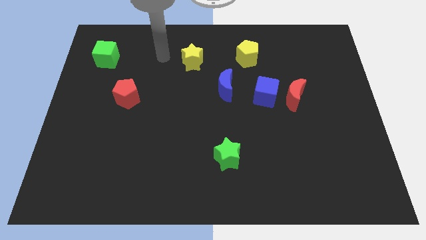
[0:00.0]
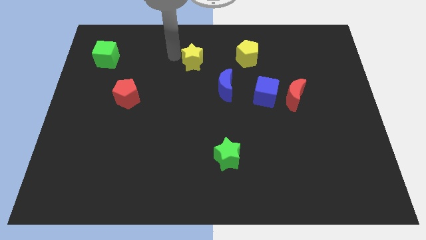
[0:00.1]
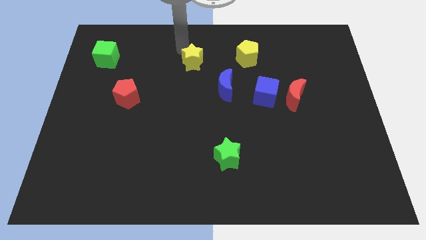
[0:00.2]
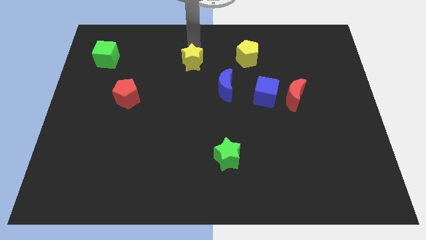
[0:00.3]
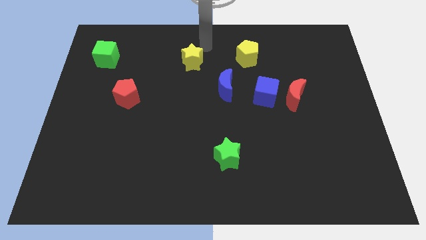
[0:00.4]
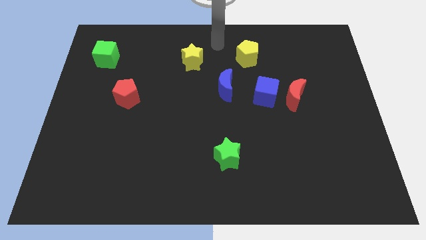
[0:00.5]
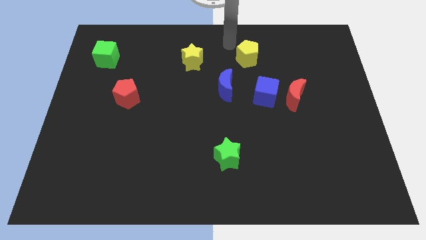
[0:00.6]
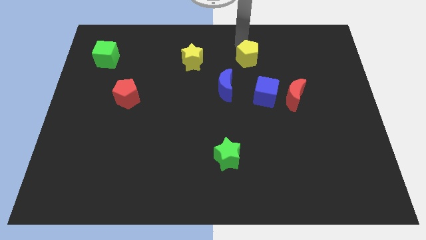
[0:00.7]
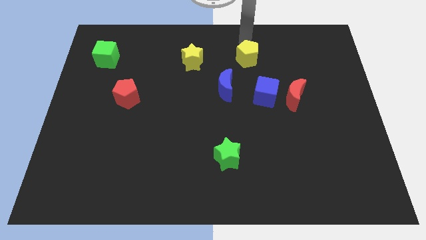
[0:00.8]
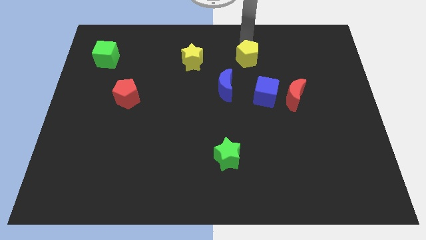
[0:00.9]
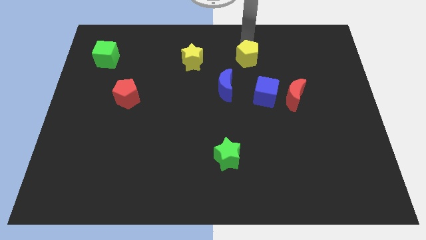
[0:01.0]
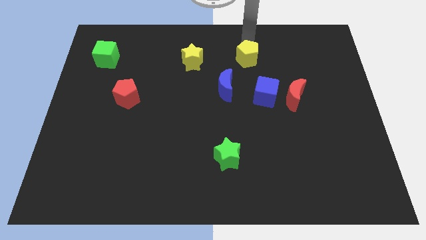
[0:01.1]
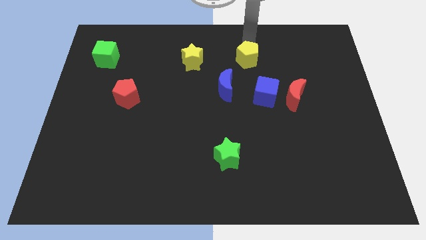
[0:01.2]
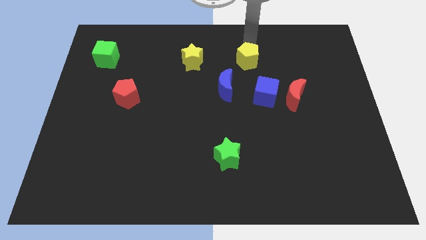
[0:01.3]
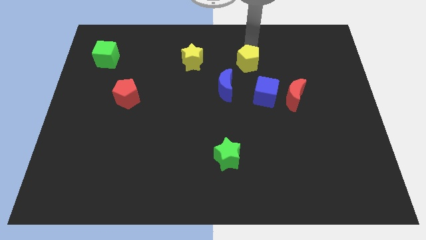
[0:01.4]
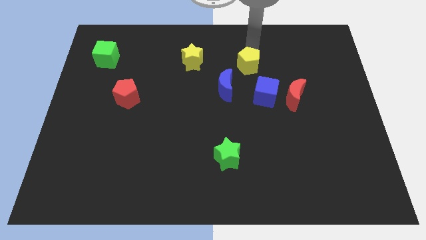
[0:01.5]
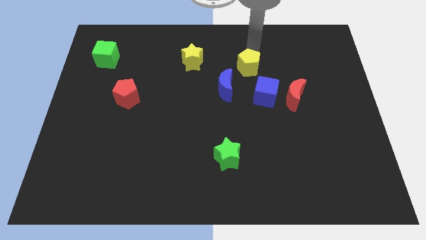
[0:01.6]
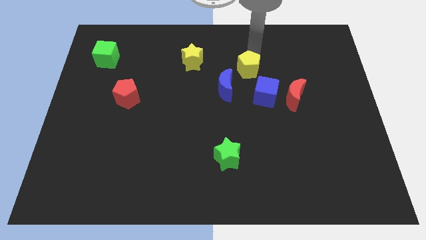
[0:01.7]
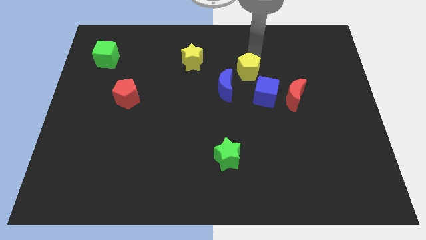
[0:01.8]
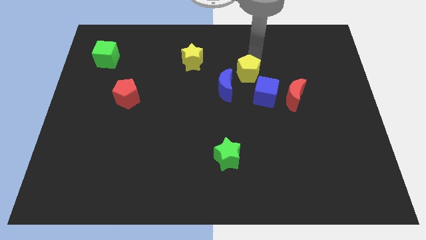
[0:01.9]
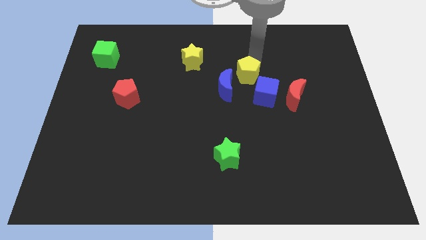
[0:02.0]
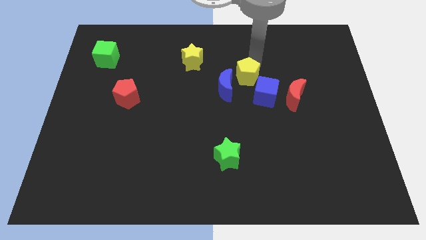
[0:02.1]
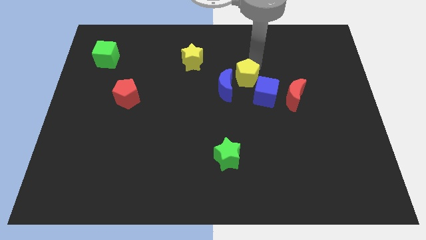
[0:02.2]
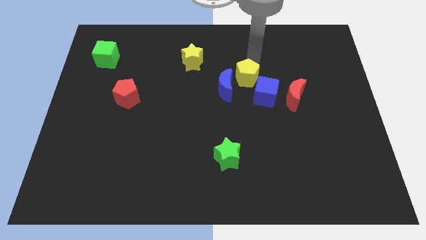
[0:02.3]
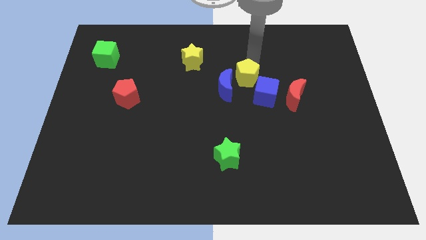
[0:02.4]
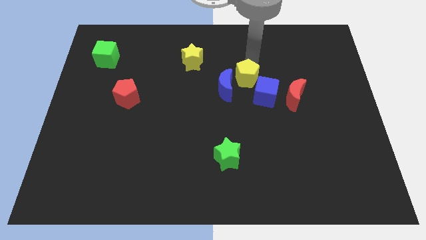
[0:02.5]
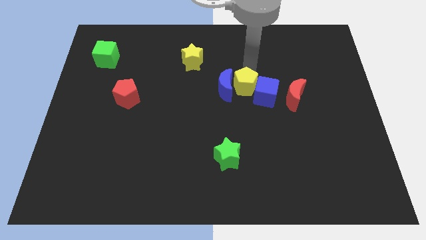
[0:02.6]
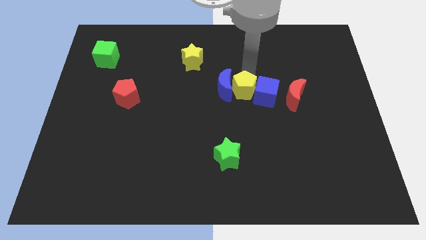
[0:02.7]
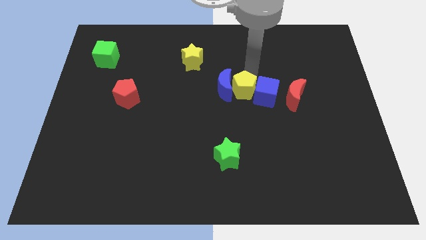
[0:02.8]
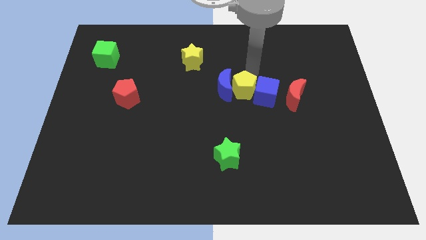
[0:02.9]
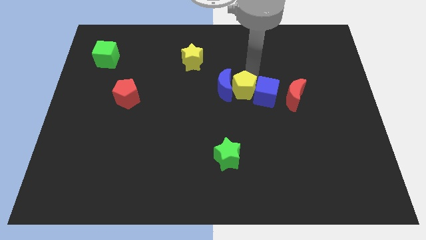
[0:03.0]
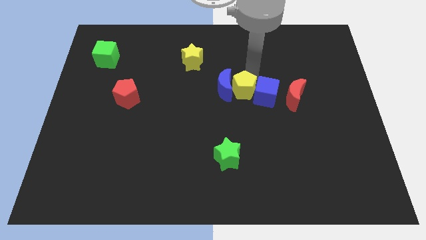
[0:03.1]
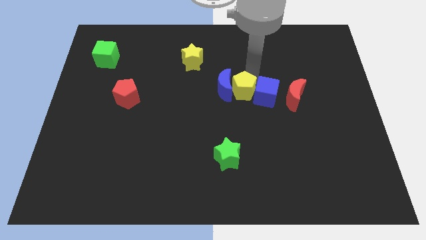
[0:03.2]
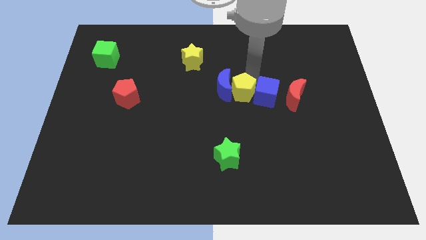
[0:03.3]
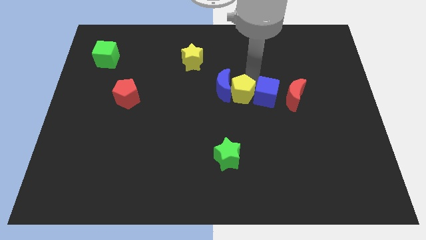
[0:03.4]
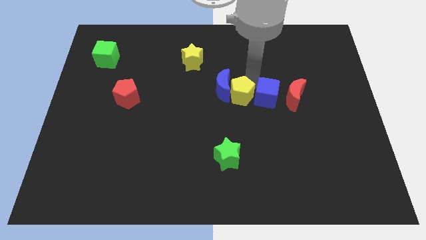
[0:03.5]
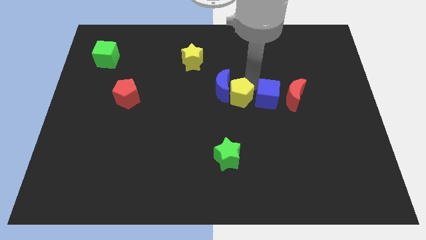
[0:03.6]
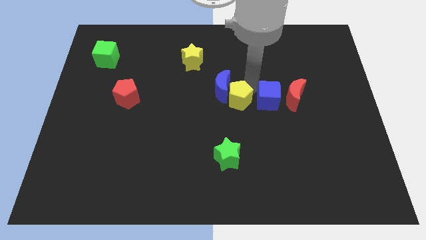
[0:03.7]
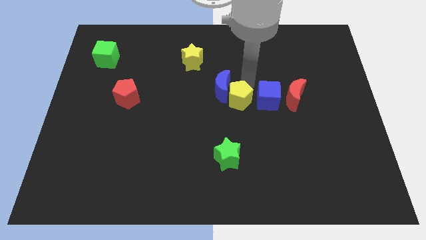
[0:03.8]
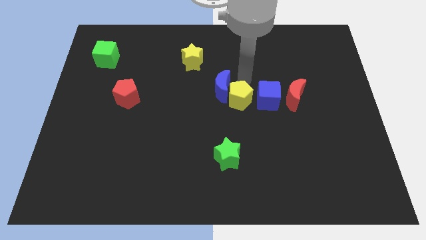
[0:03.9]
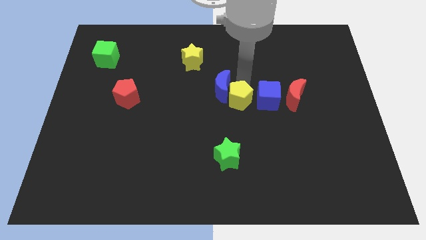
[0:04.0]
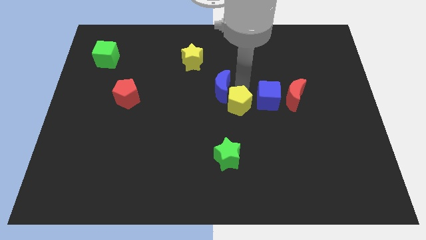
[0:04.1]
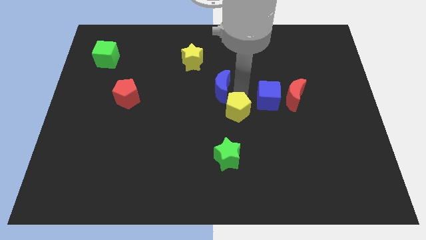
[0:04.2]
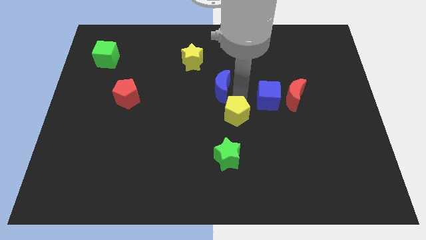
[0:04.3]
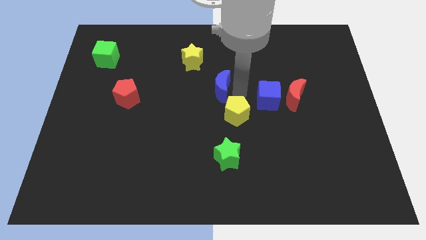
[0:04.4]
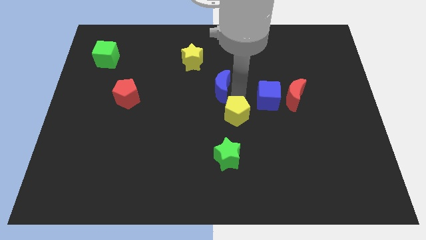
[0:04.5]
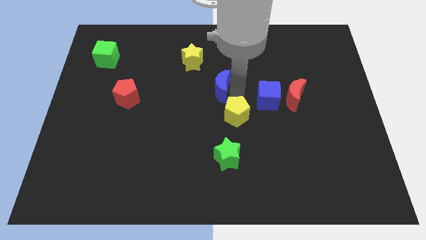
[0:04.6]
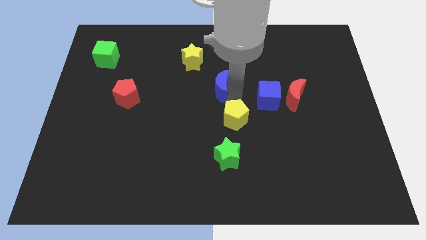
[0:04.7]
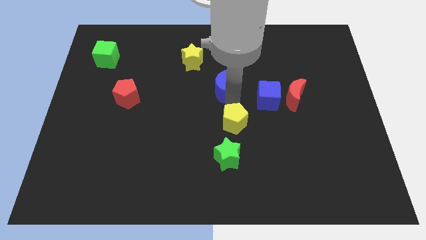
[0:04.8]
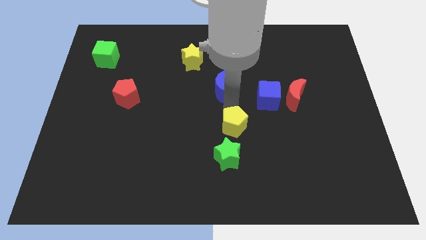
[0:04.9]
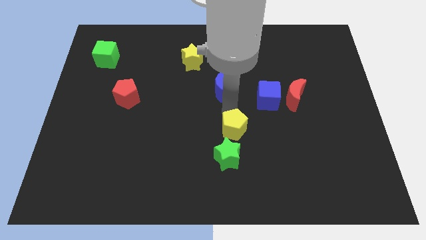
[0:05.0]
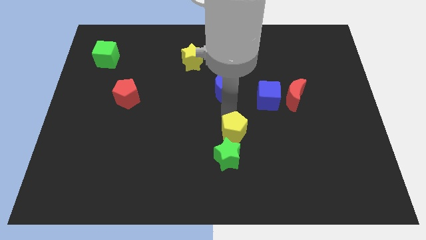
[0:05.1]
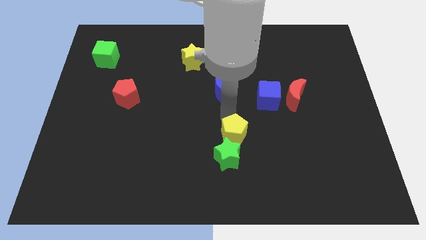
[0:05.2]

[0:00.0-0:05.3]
push the yellow pentagon close to the green star

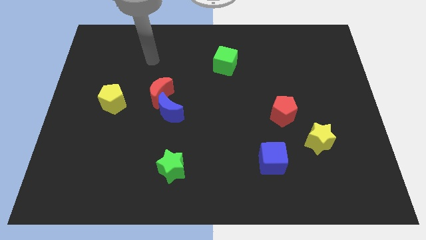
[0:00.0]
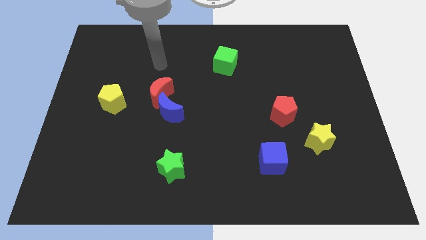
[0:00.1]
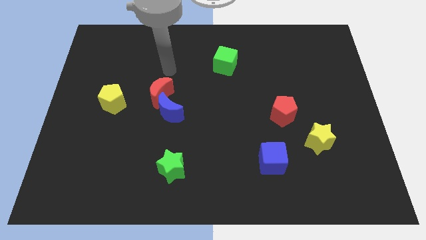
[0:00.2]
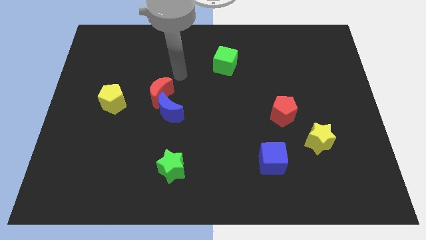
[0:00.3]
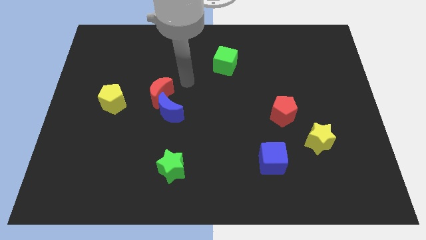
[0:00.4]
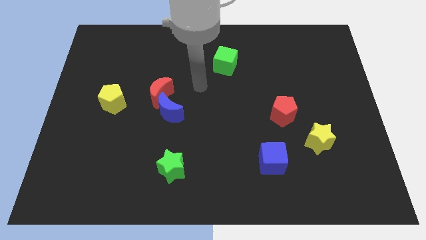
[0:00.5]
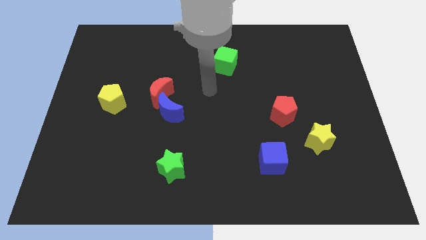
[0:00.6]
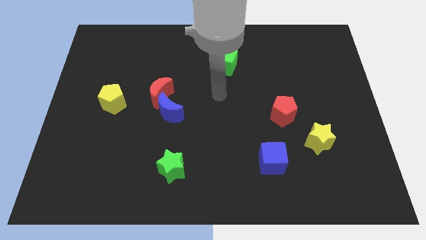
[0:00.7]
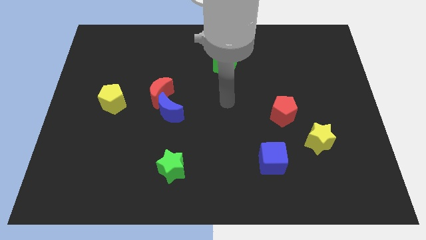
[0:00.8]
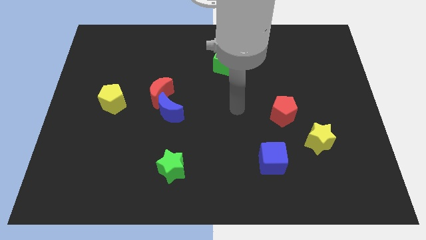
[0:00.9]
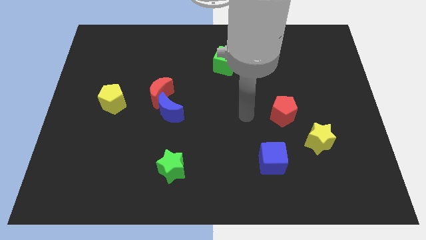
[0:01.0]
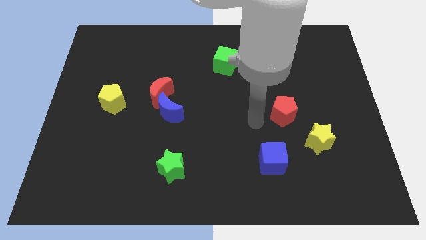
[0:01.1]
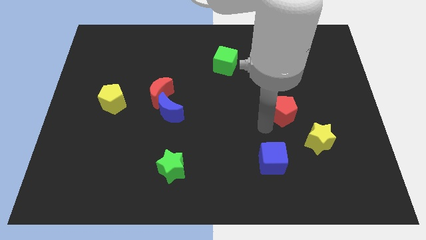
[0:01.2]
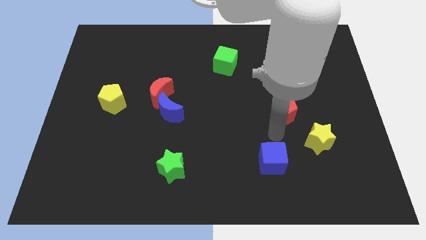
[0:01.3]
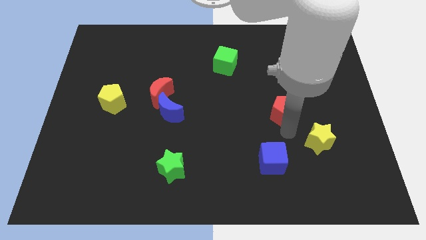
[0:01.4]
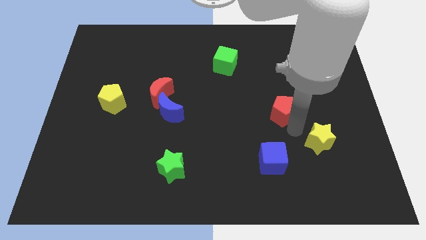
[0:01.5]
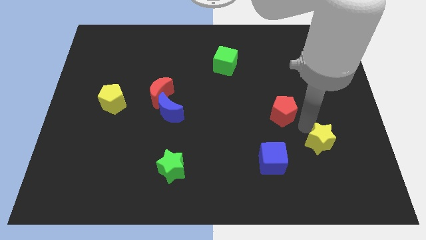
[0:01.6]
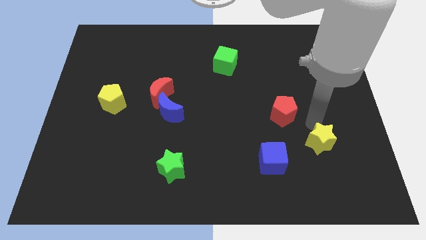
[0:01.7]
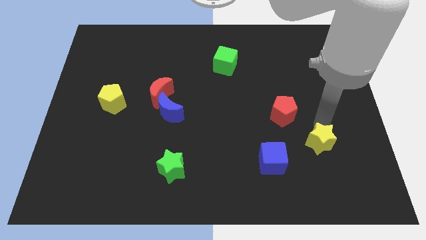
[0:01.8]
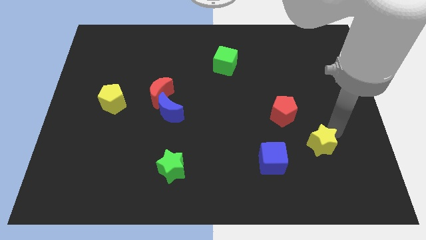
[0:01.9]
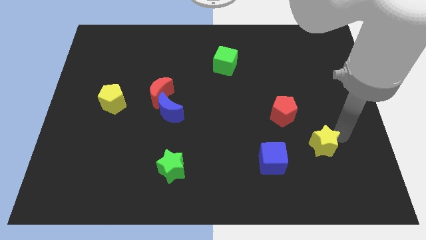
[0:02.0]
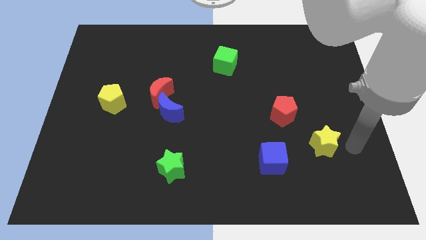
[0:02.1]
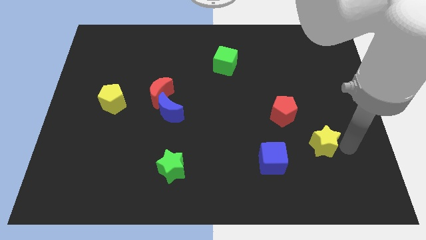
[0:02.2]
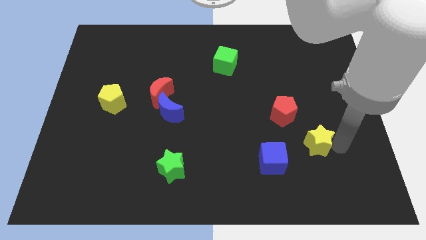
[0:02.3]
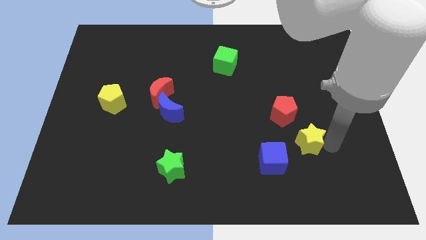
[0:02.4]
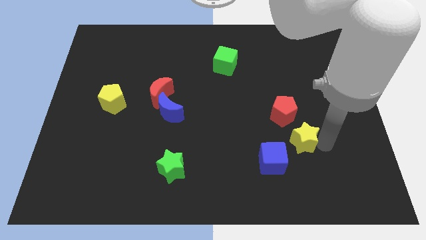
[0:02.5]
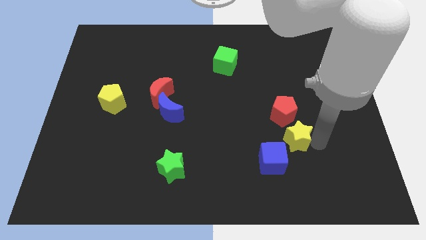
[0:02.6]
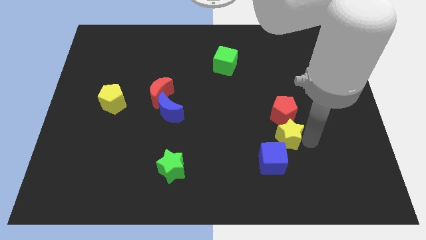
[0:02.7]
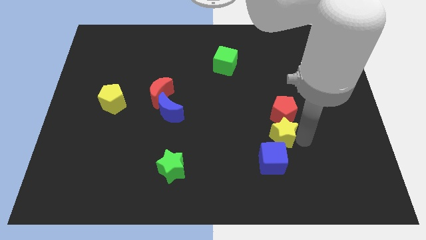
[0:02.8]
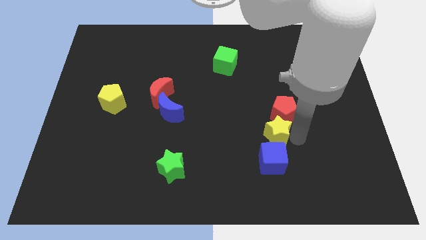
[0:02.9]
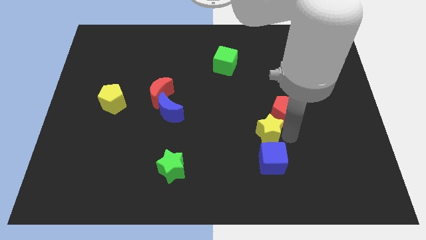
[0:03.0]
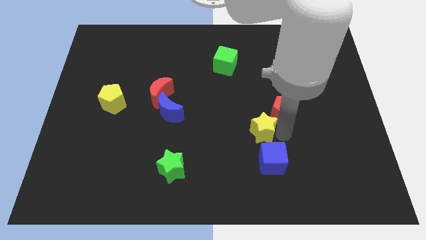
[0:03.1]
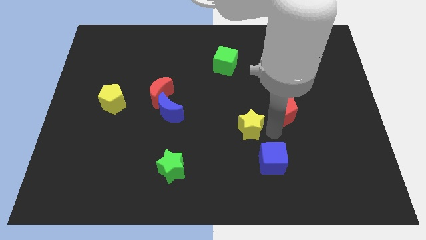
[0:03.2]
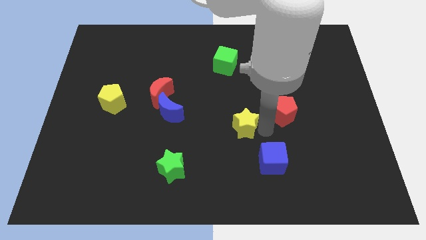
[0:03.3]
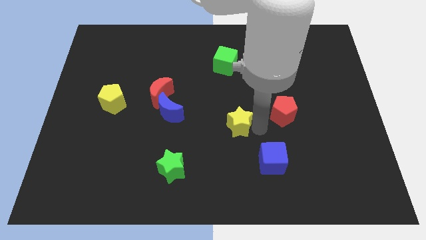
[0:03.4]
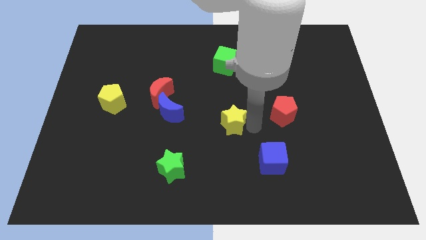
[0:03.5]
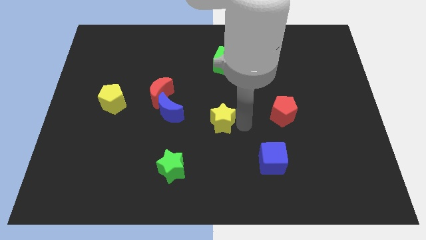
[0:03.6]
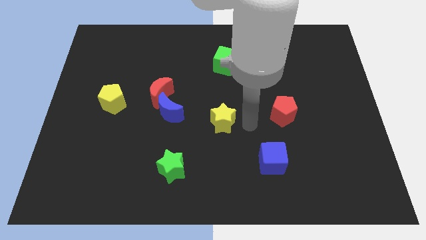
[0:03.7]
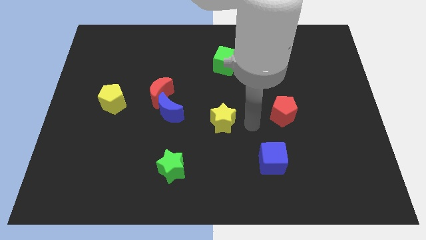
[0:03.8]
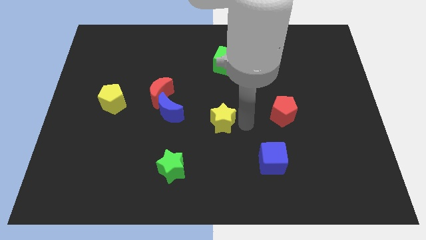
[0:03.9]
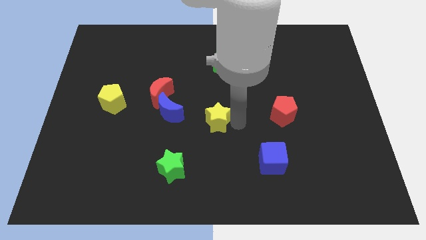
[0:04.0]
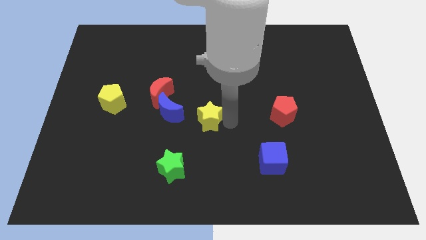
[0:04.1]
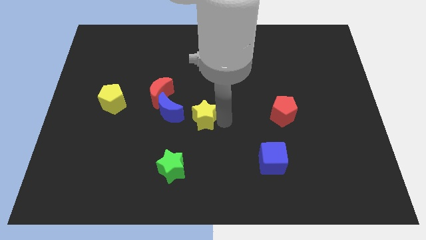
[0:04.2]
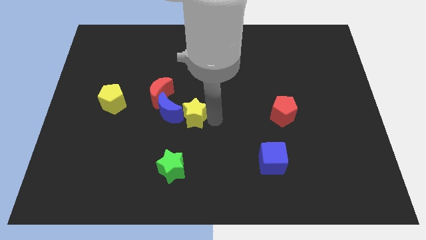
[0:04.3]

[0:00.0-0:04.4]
push the yellow star towards the blue moon
